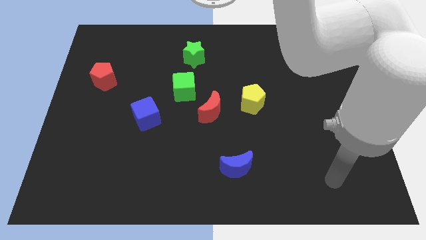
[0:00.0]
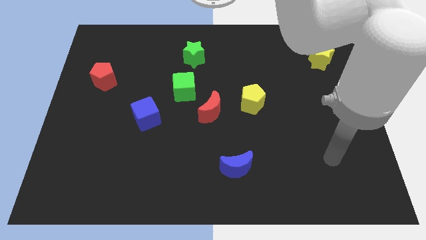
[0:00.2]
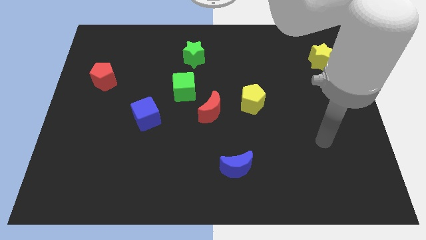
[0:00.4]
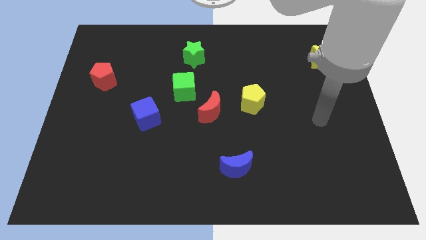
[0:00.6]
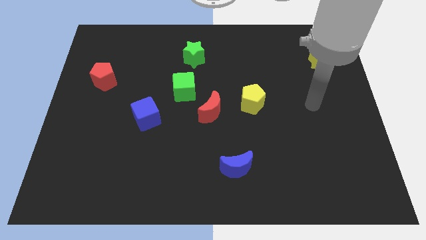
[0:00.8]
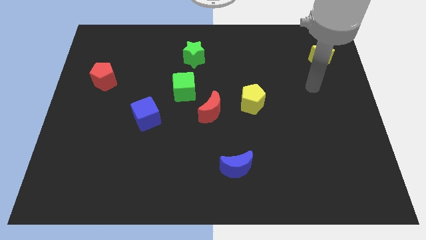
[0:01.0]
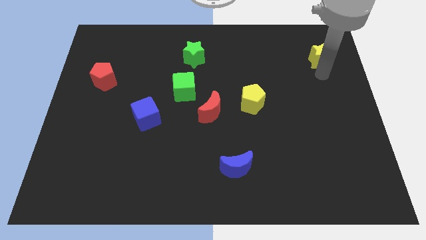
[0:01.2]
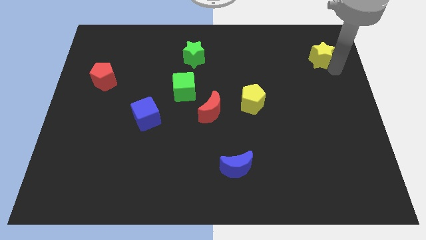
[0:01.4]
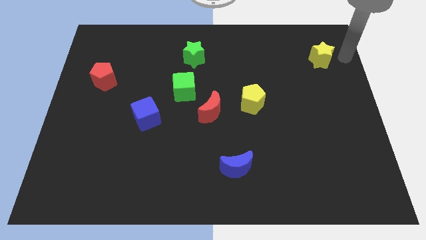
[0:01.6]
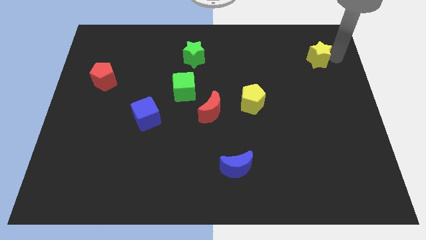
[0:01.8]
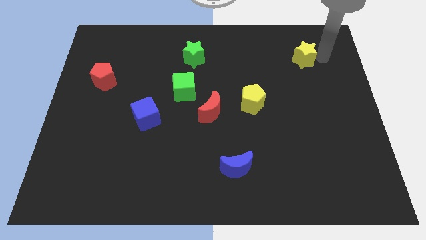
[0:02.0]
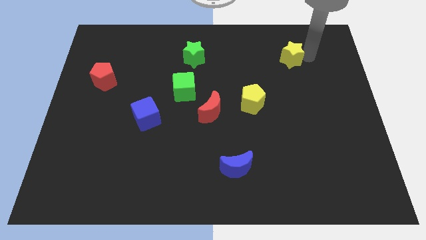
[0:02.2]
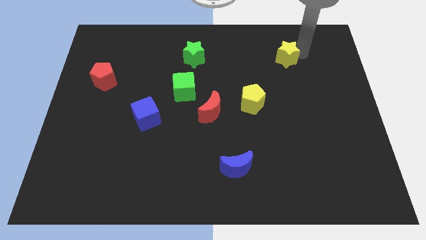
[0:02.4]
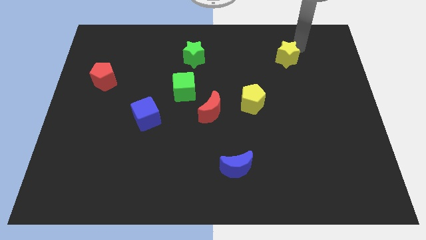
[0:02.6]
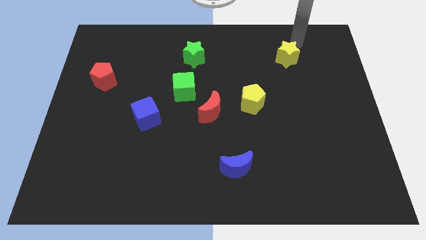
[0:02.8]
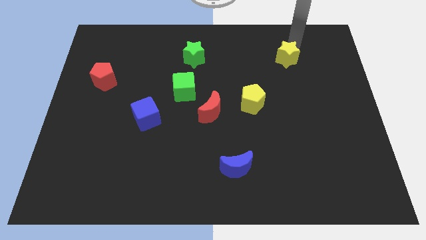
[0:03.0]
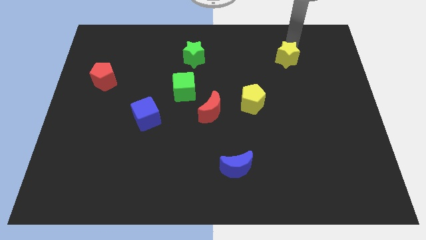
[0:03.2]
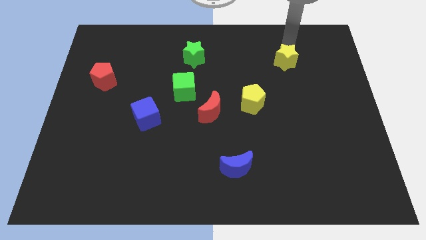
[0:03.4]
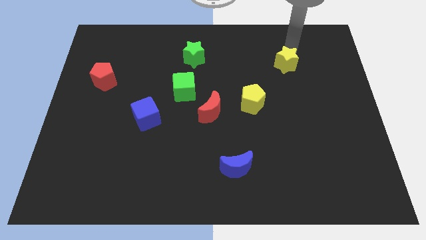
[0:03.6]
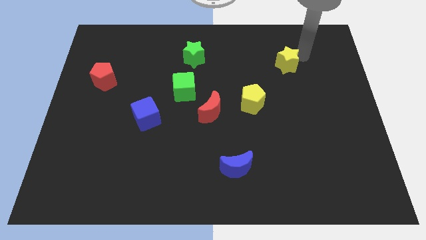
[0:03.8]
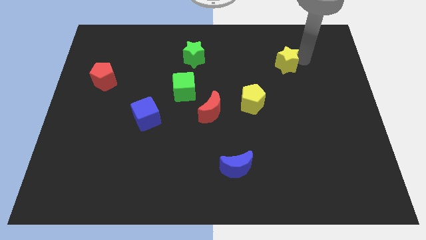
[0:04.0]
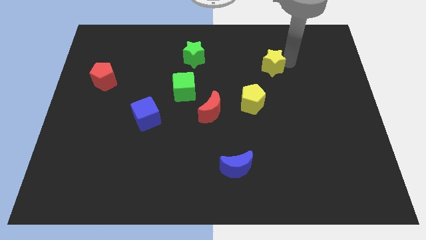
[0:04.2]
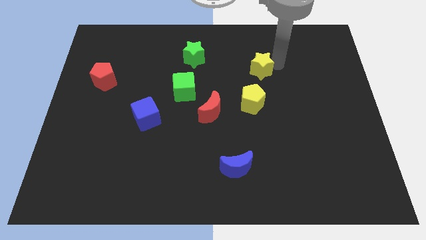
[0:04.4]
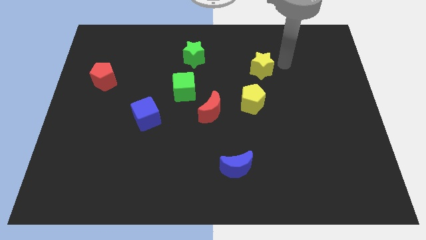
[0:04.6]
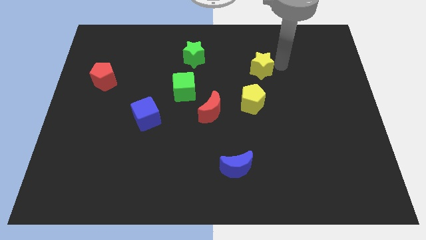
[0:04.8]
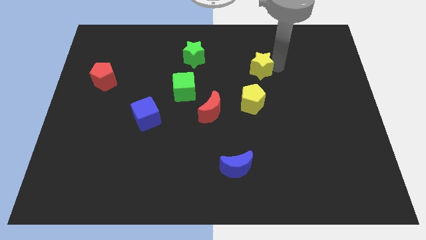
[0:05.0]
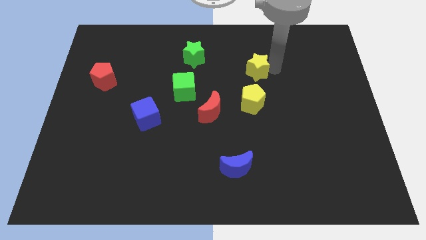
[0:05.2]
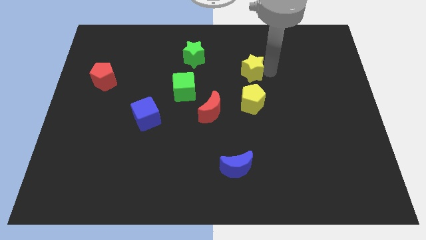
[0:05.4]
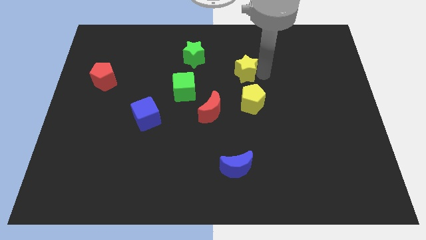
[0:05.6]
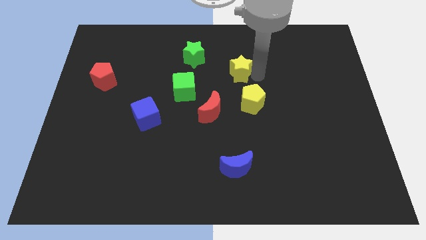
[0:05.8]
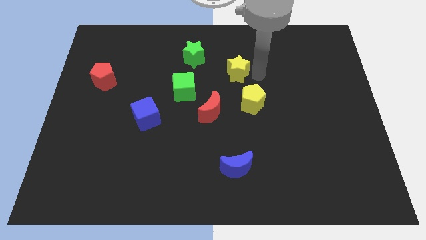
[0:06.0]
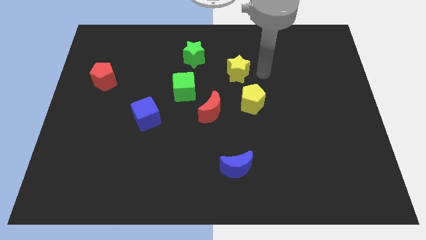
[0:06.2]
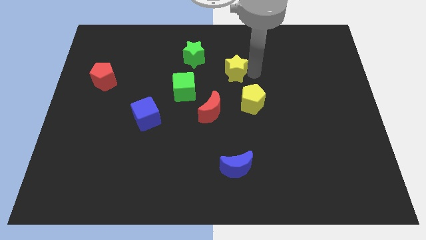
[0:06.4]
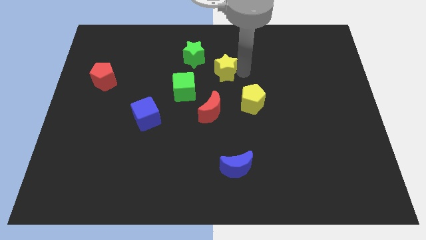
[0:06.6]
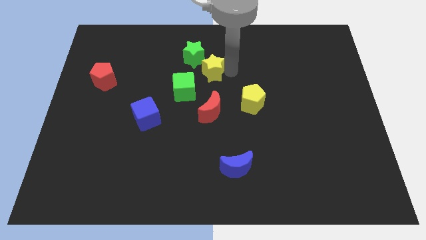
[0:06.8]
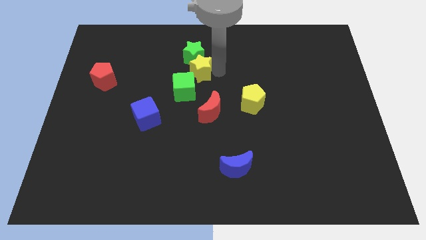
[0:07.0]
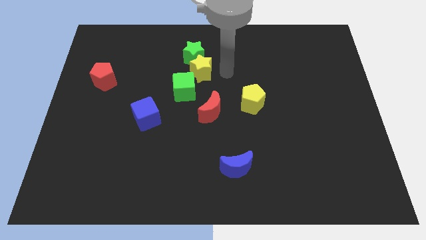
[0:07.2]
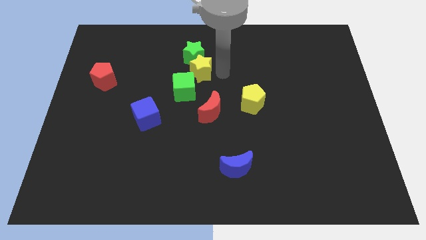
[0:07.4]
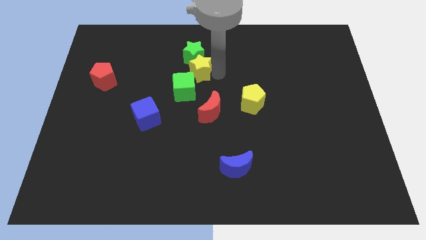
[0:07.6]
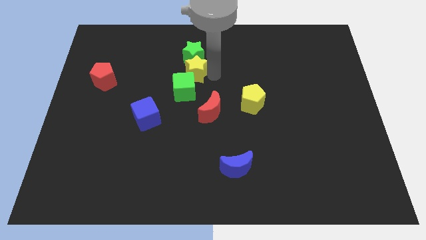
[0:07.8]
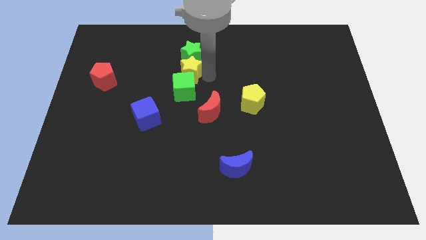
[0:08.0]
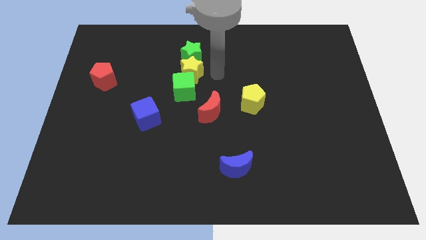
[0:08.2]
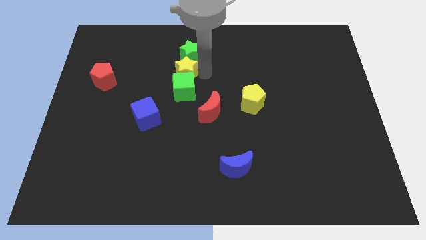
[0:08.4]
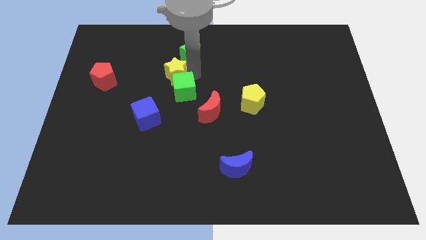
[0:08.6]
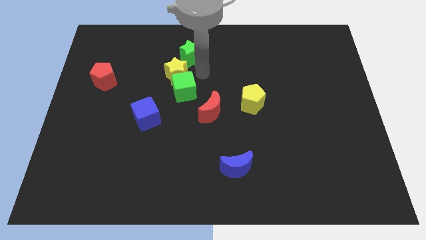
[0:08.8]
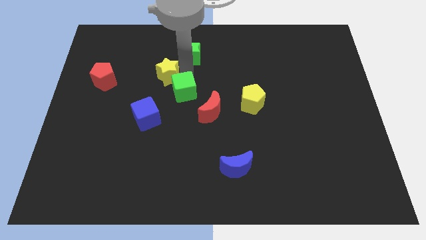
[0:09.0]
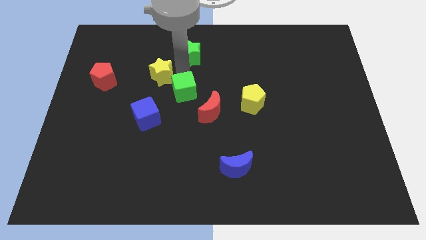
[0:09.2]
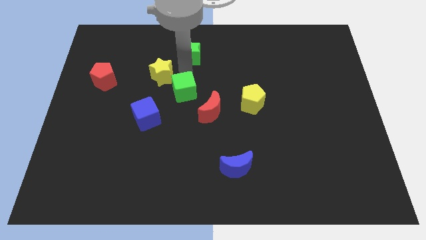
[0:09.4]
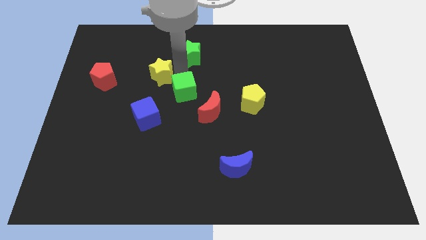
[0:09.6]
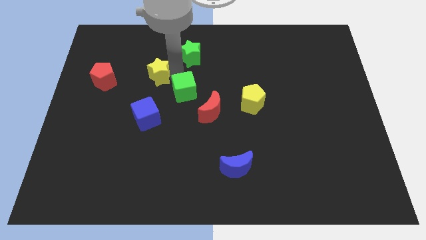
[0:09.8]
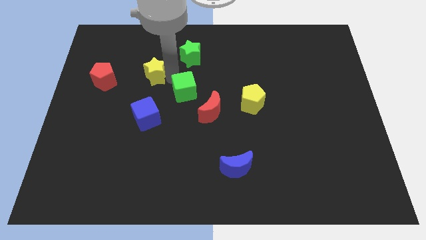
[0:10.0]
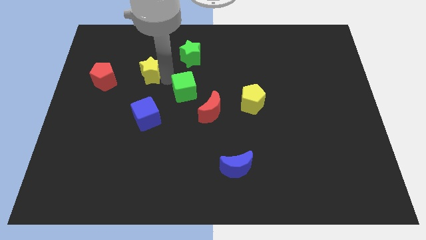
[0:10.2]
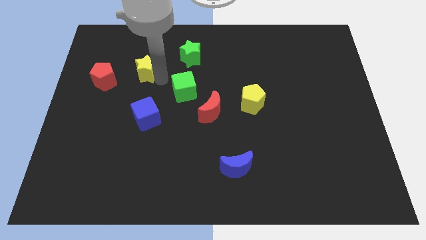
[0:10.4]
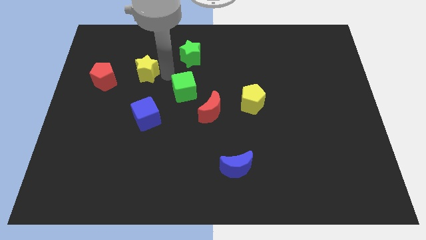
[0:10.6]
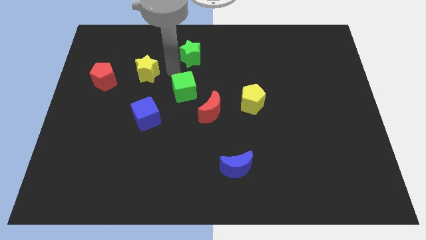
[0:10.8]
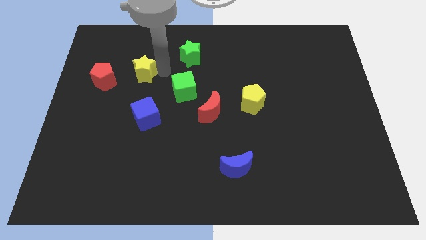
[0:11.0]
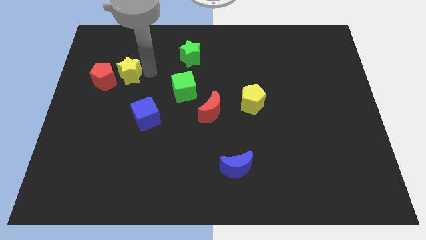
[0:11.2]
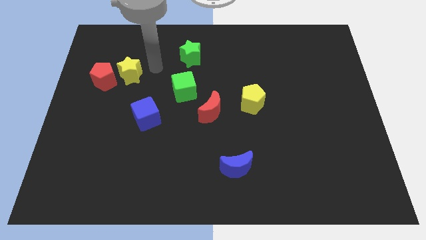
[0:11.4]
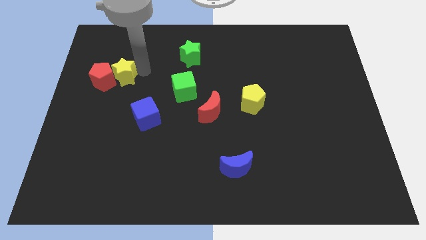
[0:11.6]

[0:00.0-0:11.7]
move the yellow star towards the red pentagon

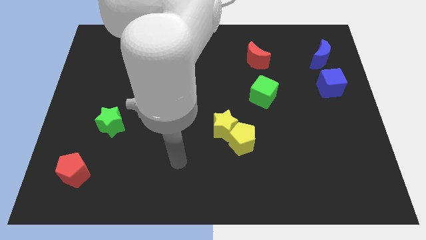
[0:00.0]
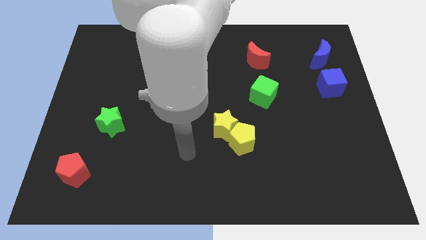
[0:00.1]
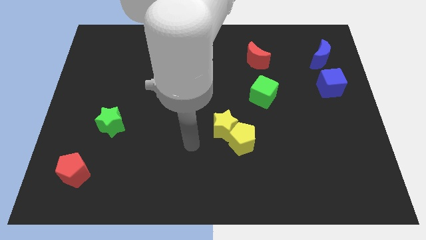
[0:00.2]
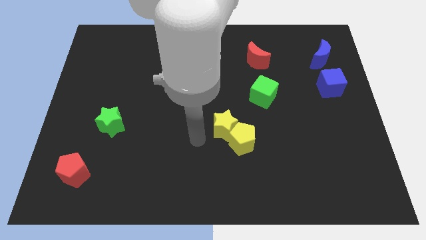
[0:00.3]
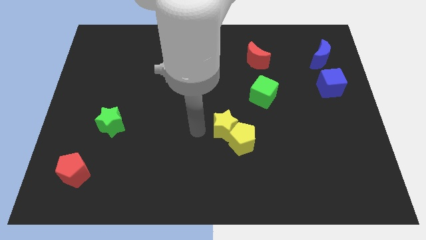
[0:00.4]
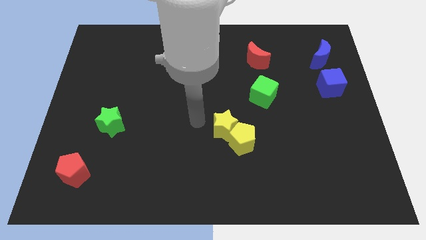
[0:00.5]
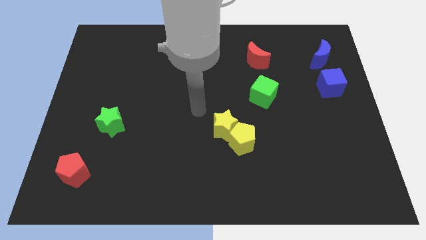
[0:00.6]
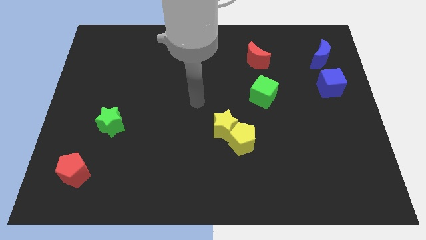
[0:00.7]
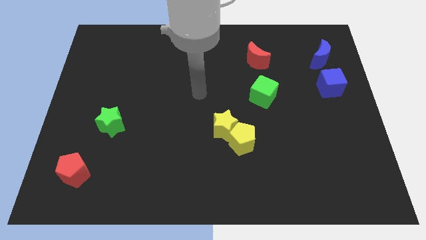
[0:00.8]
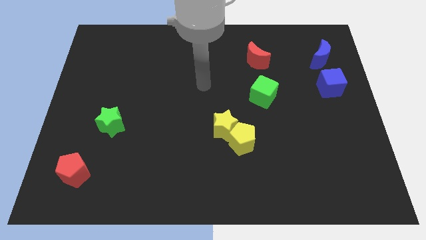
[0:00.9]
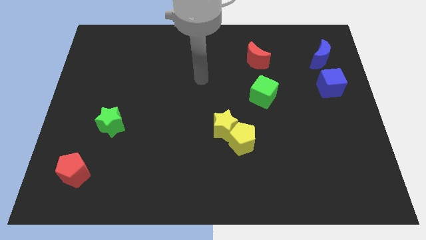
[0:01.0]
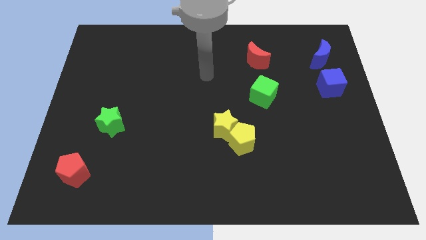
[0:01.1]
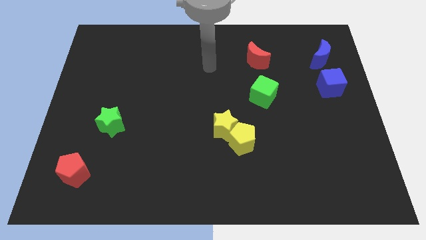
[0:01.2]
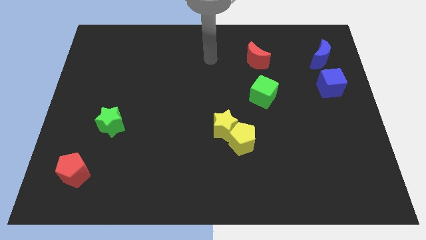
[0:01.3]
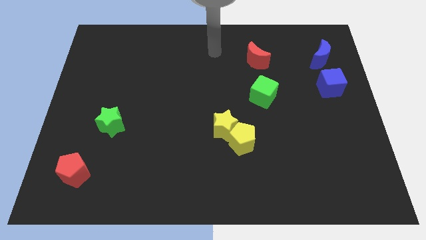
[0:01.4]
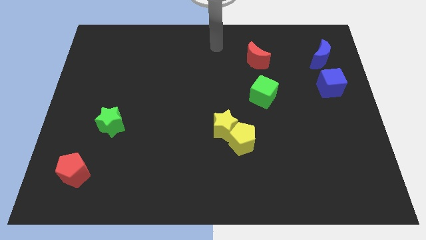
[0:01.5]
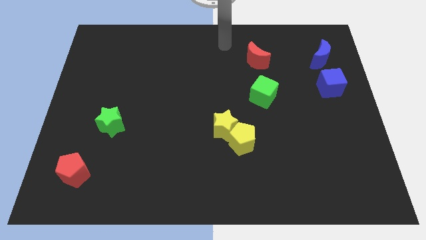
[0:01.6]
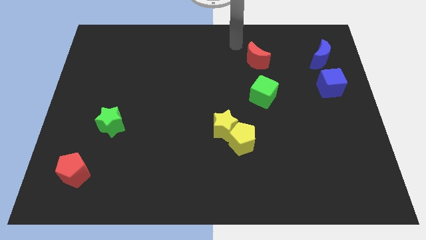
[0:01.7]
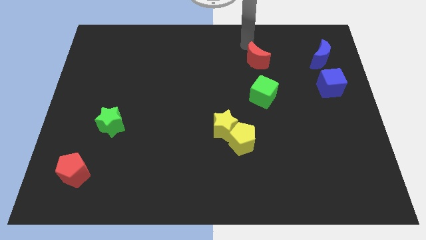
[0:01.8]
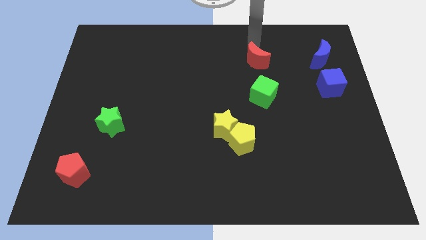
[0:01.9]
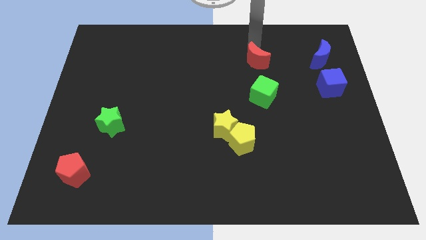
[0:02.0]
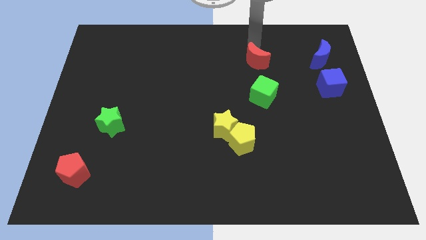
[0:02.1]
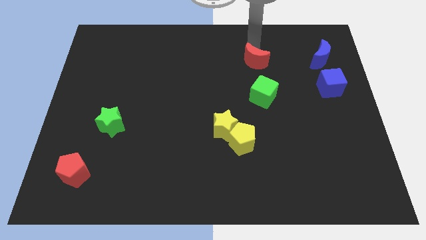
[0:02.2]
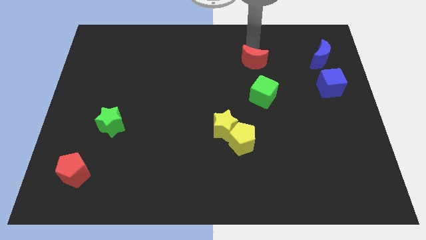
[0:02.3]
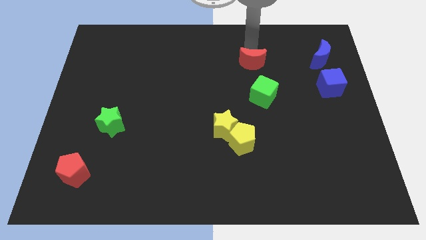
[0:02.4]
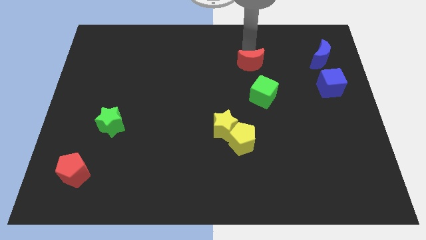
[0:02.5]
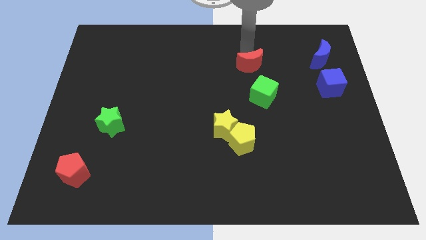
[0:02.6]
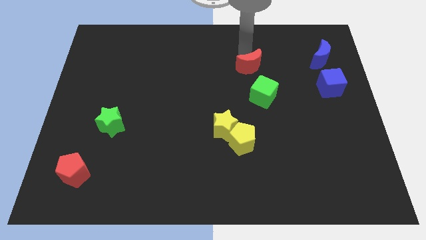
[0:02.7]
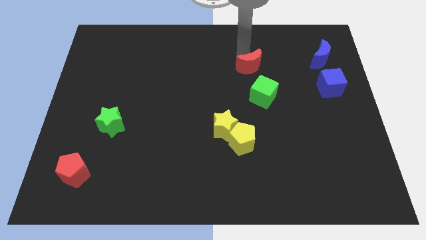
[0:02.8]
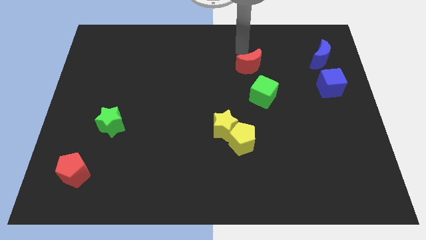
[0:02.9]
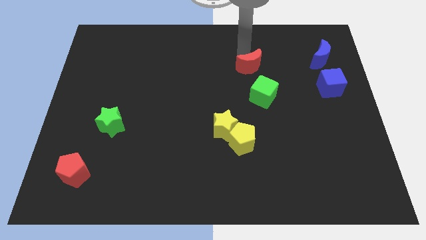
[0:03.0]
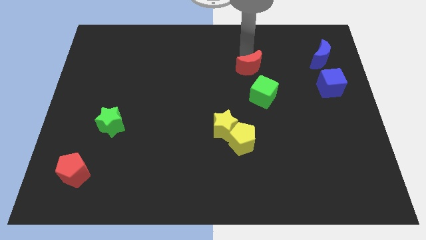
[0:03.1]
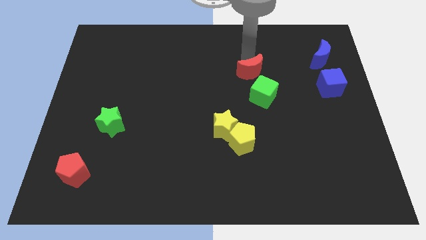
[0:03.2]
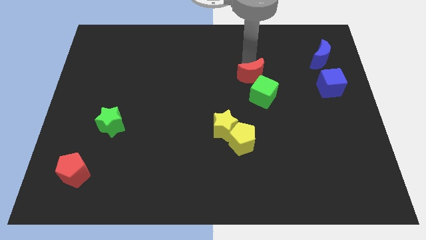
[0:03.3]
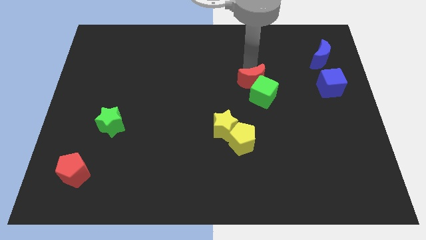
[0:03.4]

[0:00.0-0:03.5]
slide the red moon towards the green cube
